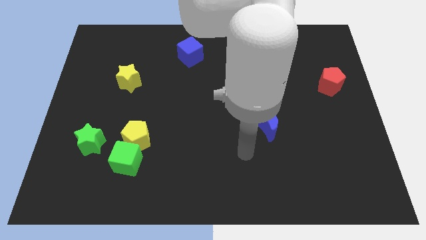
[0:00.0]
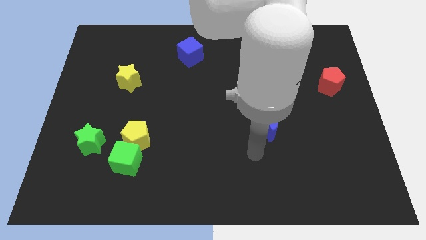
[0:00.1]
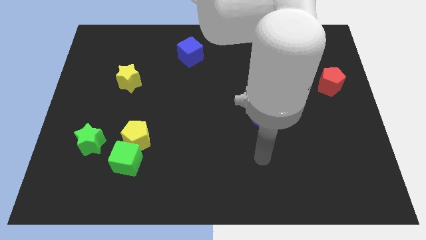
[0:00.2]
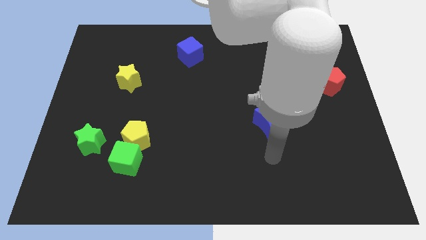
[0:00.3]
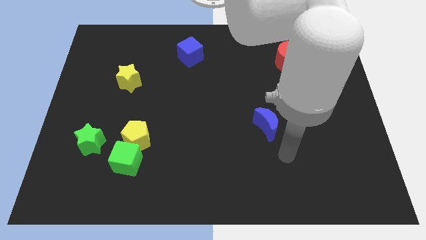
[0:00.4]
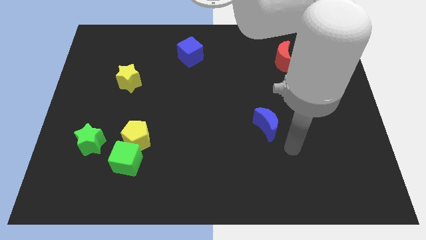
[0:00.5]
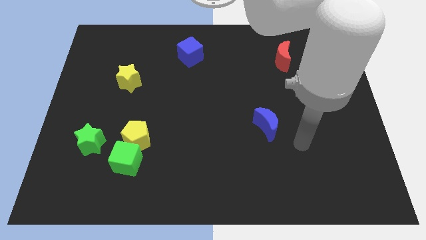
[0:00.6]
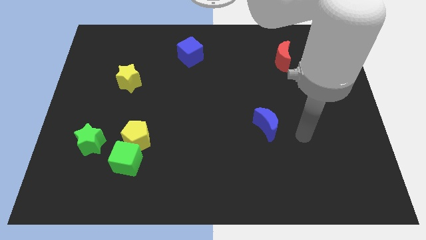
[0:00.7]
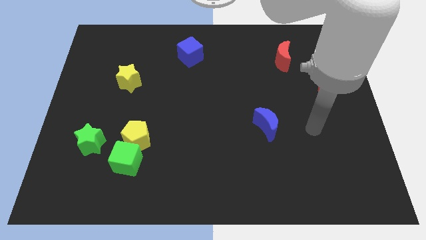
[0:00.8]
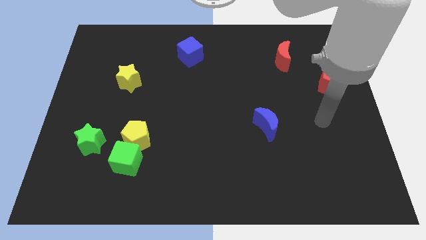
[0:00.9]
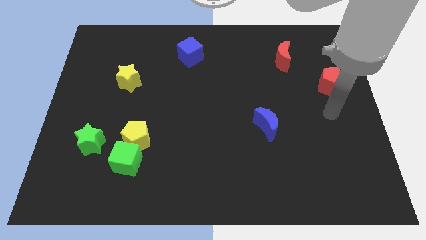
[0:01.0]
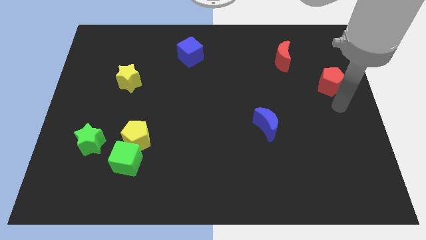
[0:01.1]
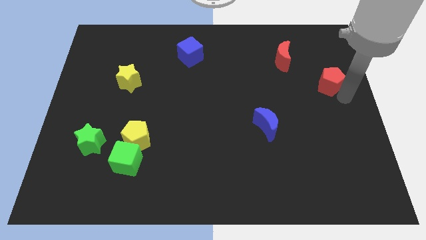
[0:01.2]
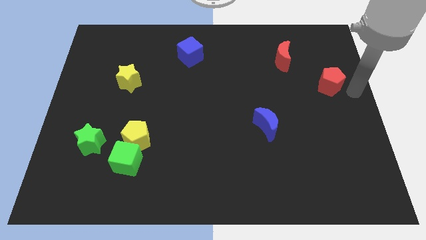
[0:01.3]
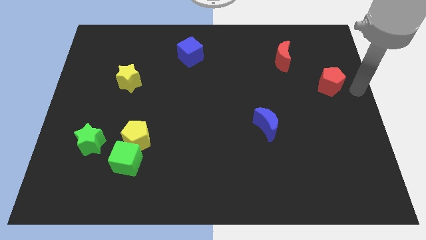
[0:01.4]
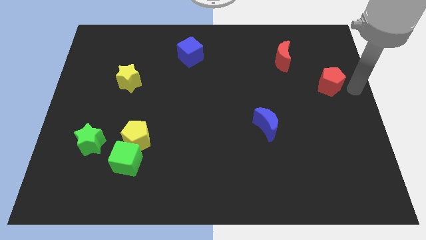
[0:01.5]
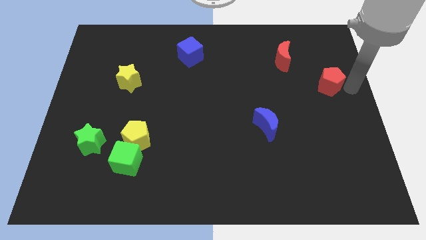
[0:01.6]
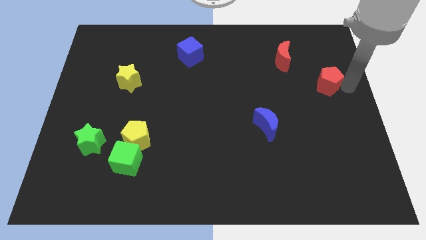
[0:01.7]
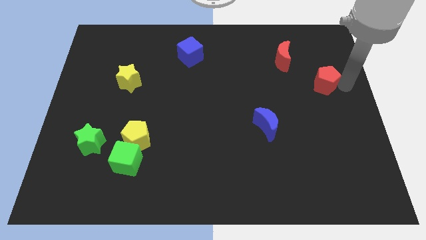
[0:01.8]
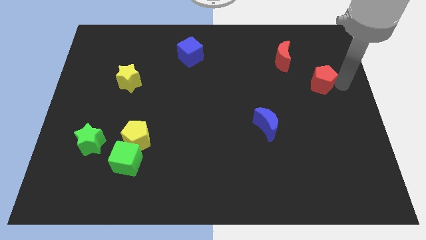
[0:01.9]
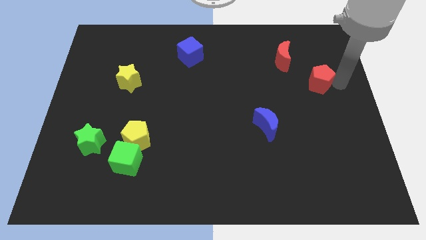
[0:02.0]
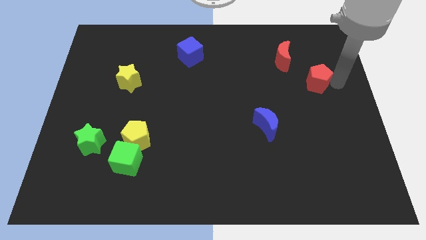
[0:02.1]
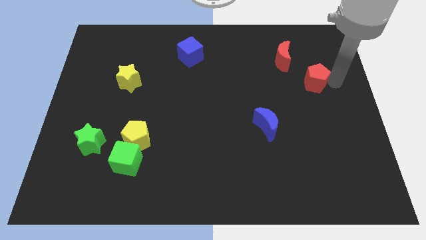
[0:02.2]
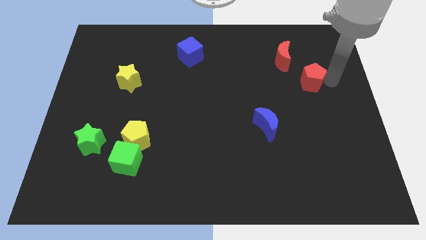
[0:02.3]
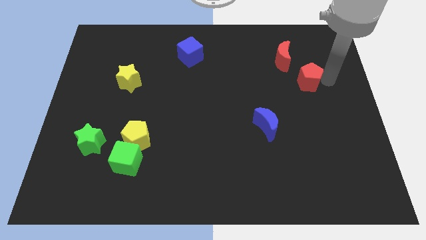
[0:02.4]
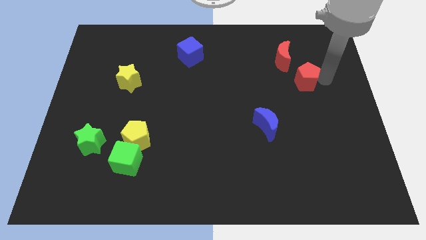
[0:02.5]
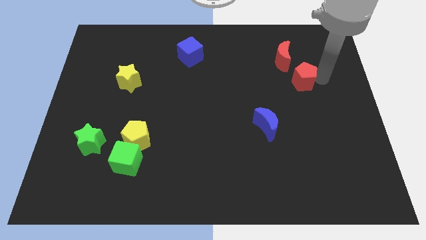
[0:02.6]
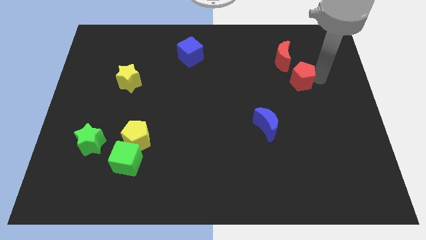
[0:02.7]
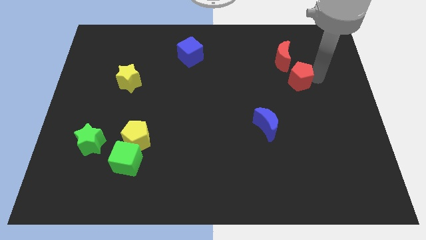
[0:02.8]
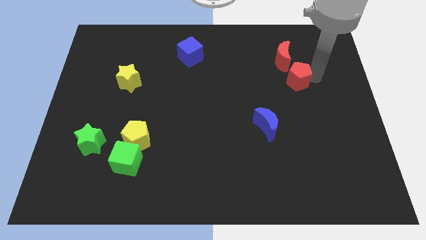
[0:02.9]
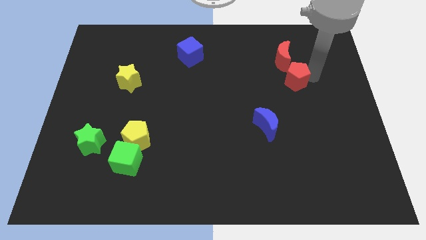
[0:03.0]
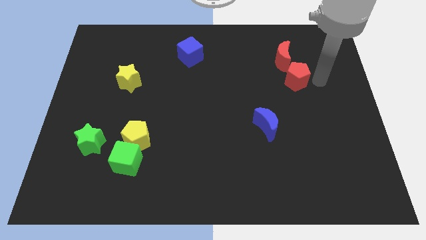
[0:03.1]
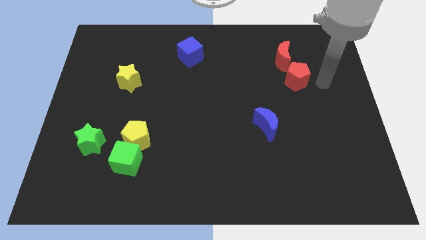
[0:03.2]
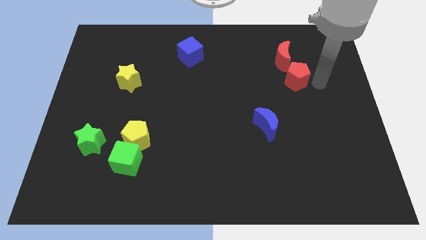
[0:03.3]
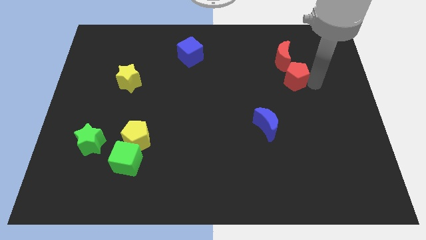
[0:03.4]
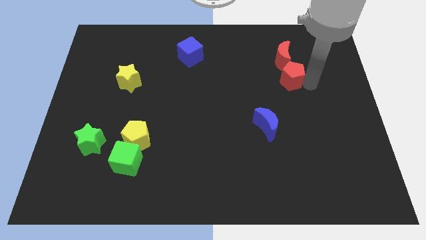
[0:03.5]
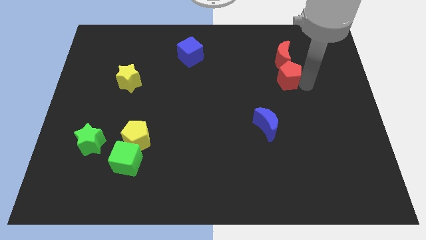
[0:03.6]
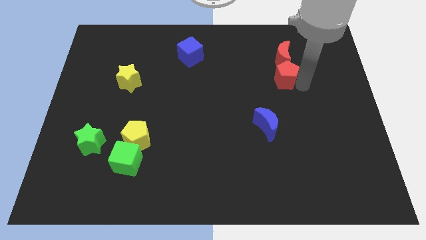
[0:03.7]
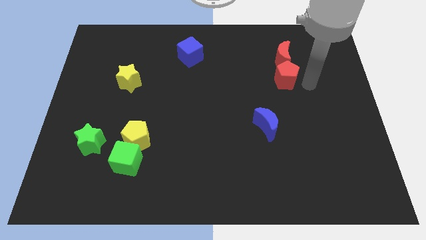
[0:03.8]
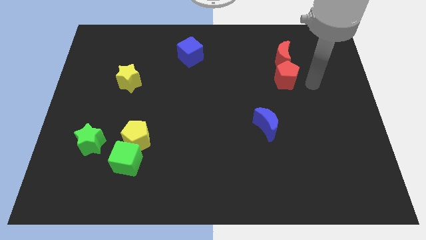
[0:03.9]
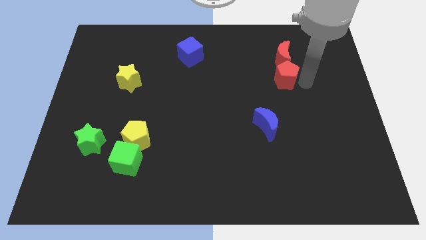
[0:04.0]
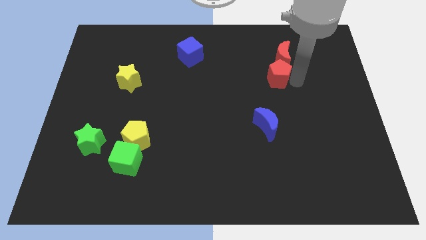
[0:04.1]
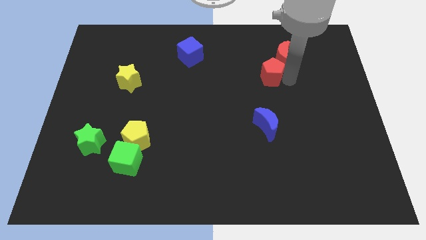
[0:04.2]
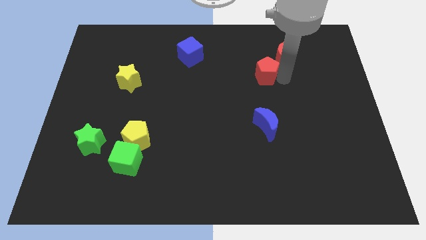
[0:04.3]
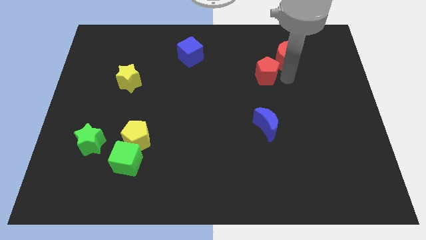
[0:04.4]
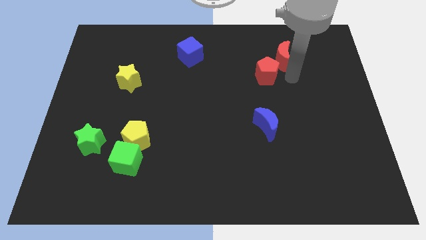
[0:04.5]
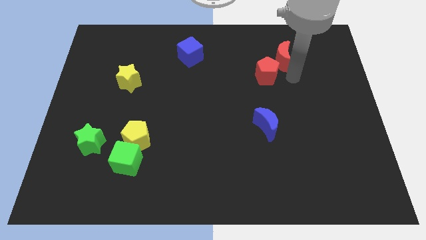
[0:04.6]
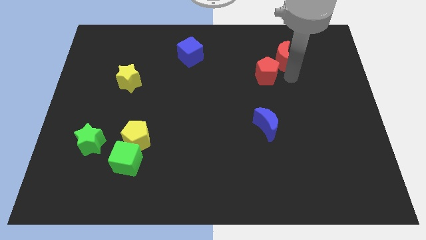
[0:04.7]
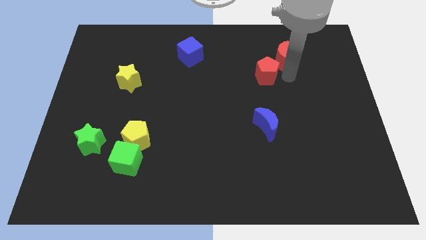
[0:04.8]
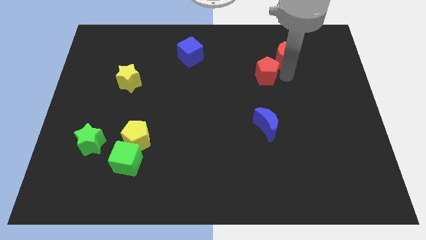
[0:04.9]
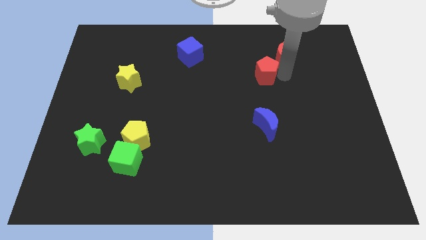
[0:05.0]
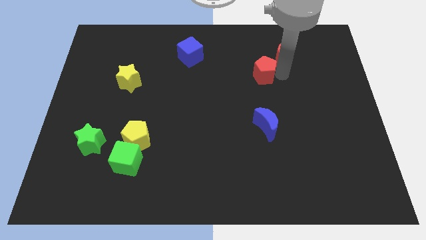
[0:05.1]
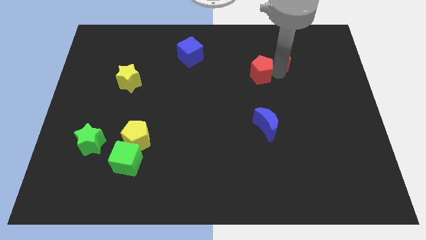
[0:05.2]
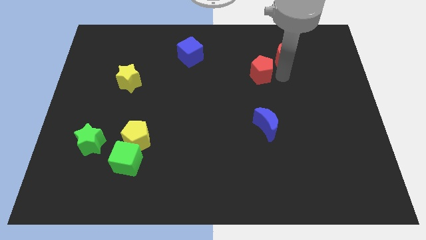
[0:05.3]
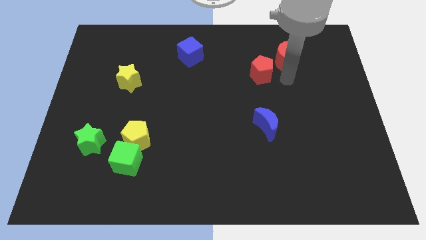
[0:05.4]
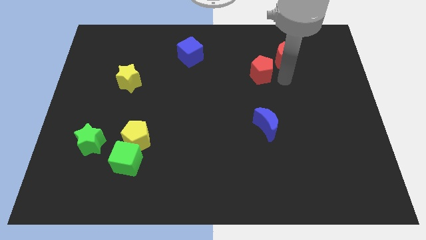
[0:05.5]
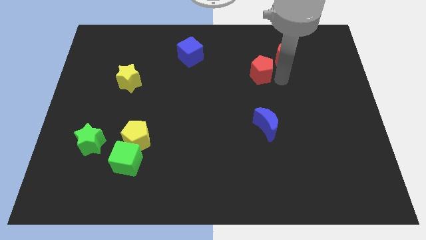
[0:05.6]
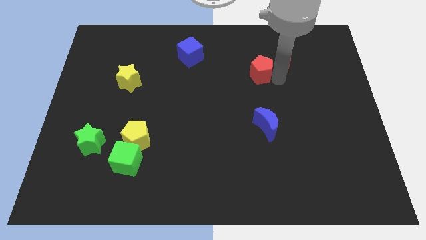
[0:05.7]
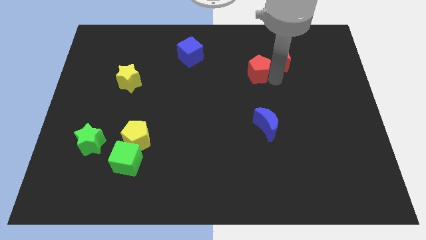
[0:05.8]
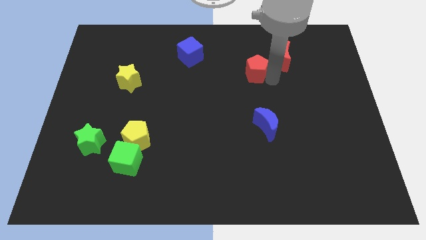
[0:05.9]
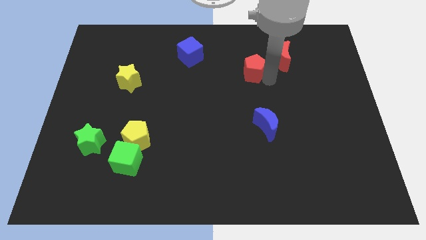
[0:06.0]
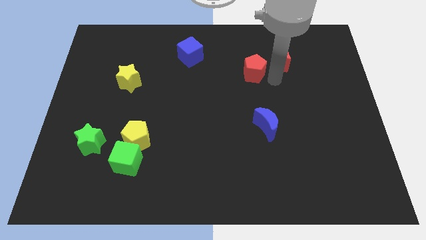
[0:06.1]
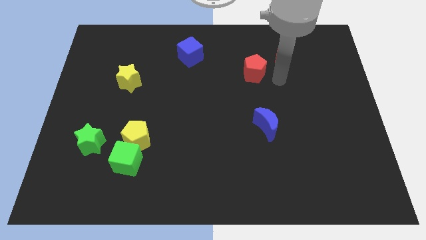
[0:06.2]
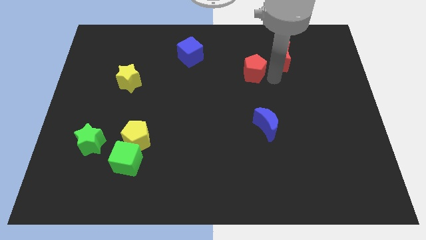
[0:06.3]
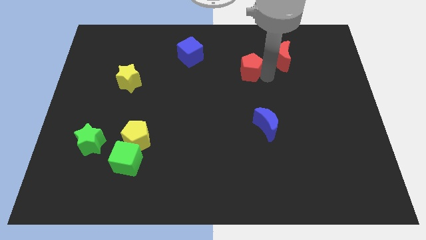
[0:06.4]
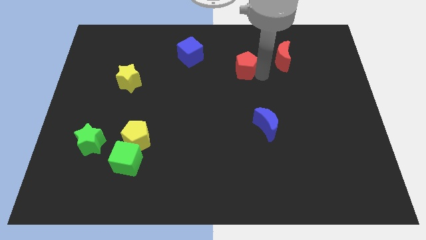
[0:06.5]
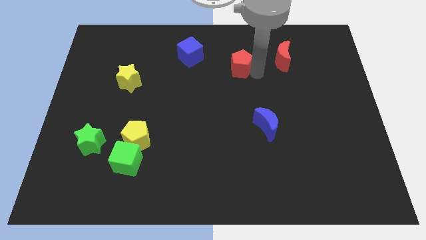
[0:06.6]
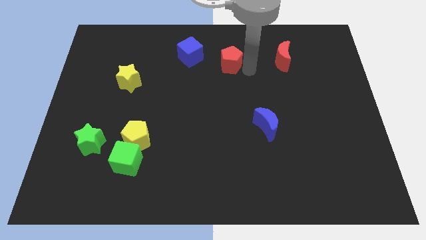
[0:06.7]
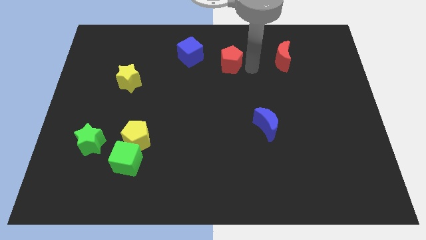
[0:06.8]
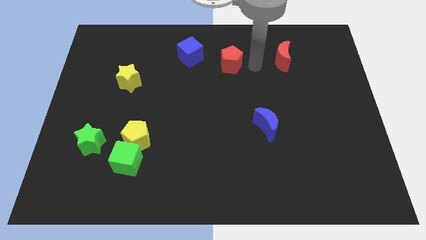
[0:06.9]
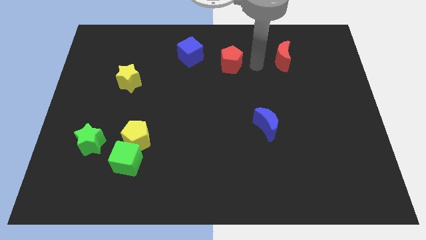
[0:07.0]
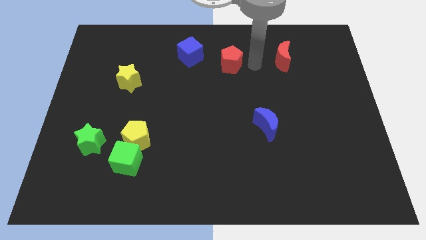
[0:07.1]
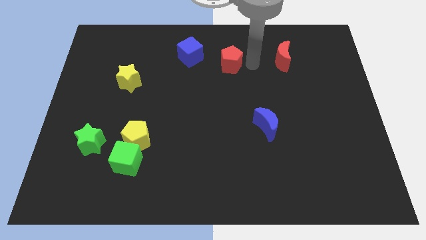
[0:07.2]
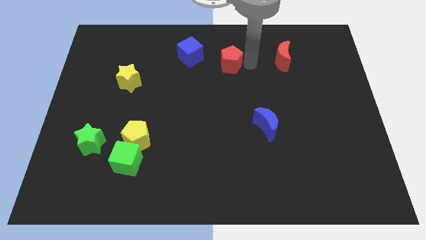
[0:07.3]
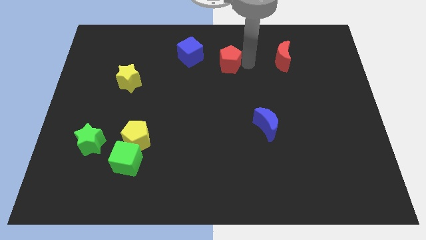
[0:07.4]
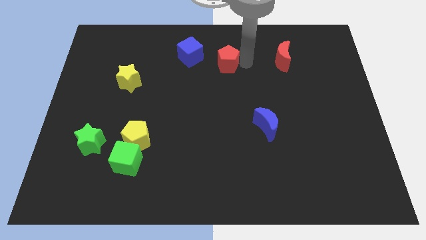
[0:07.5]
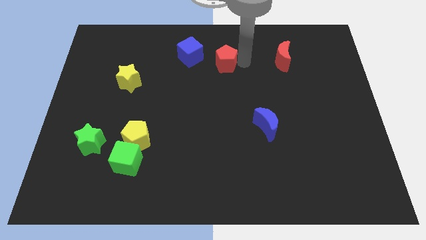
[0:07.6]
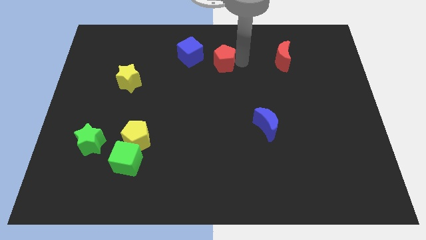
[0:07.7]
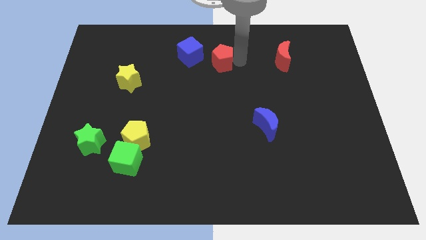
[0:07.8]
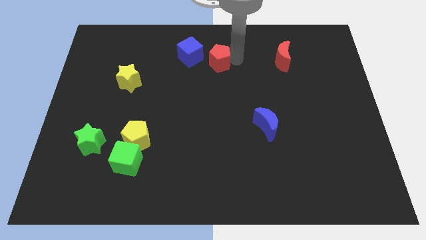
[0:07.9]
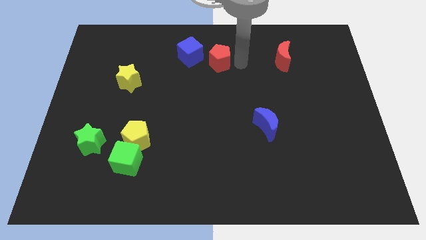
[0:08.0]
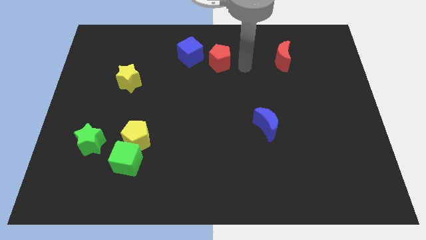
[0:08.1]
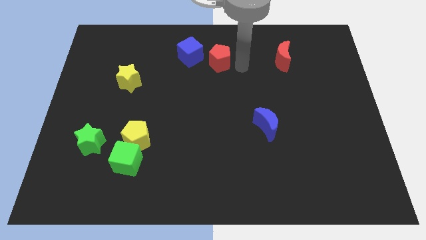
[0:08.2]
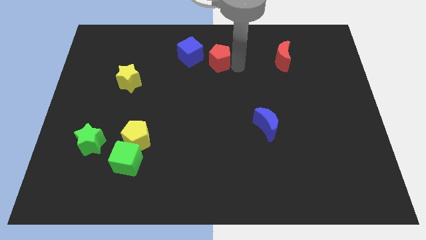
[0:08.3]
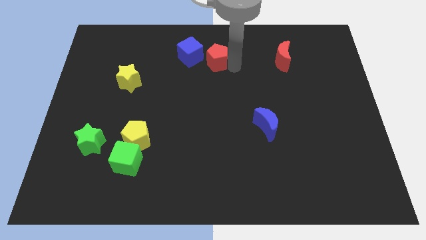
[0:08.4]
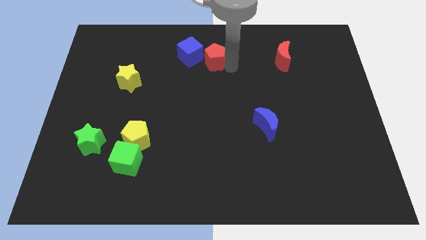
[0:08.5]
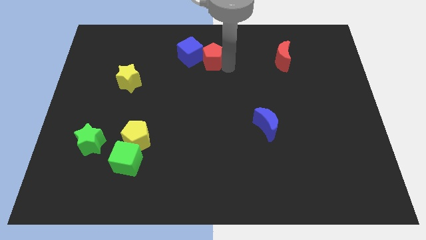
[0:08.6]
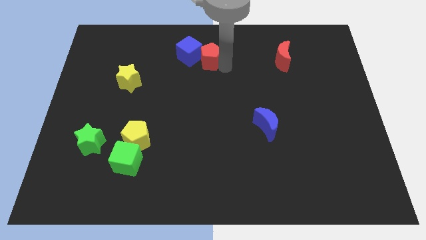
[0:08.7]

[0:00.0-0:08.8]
slide the red pentagon towards the blue cube
